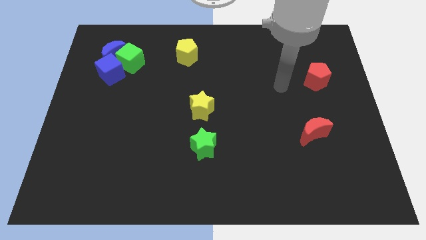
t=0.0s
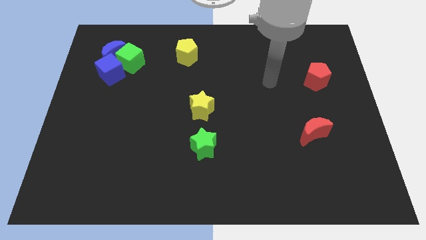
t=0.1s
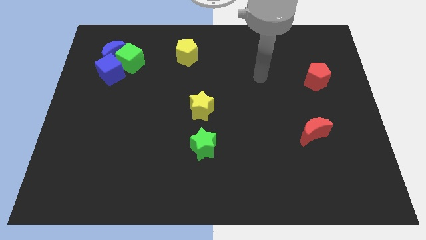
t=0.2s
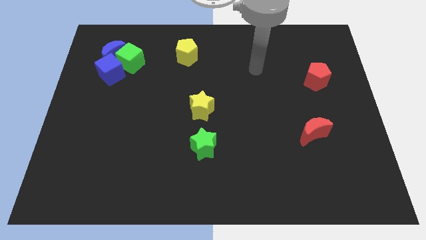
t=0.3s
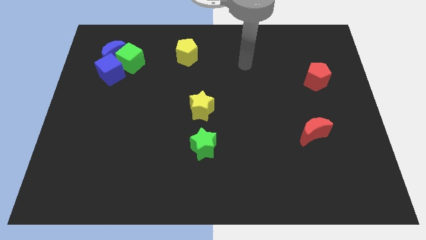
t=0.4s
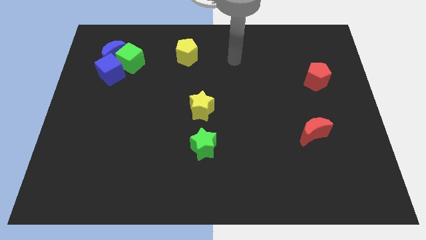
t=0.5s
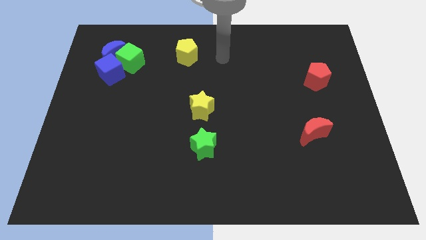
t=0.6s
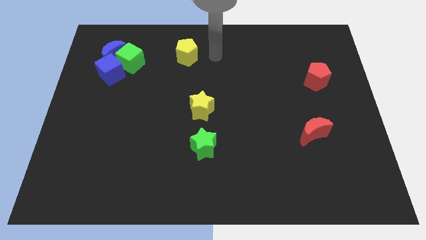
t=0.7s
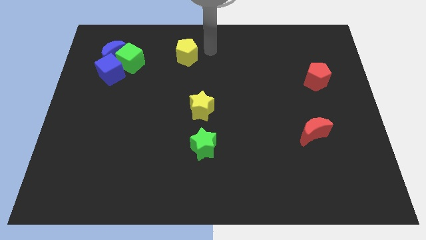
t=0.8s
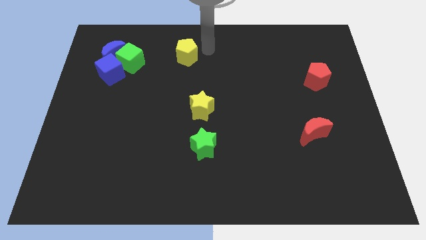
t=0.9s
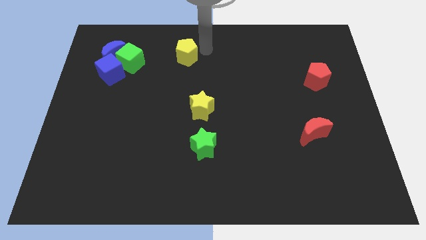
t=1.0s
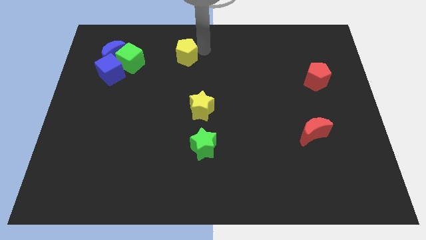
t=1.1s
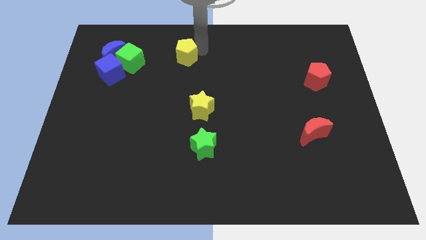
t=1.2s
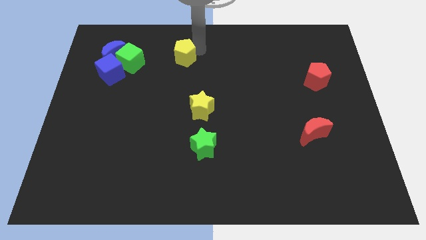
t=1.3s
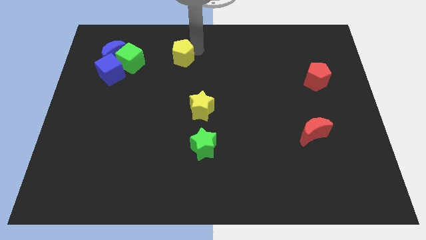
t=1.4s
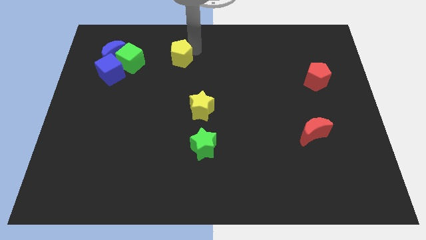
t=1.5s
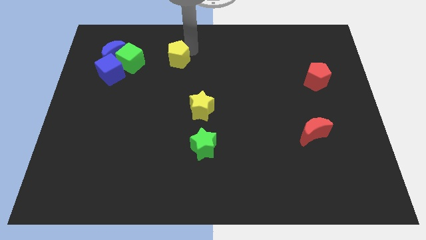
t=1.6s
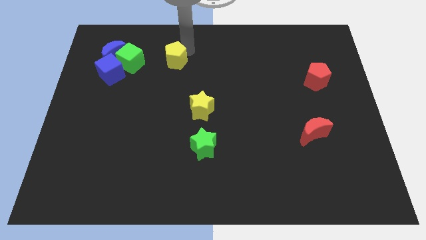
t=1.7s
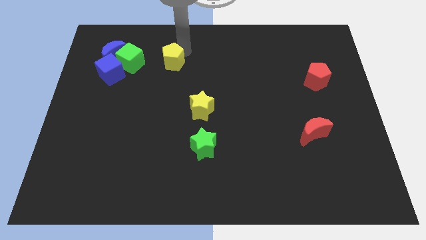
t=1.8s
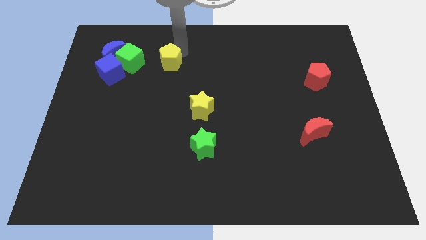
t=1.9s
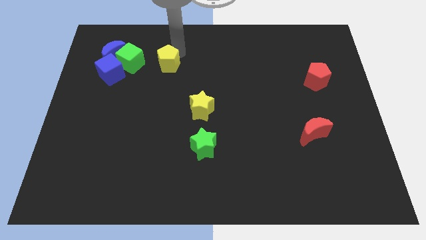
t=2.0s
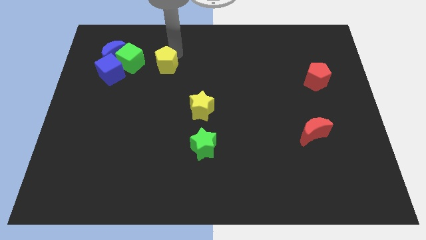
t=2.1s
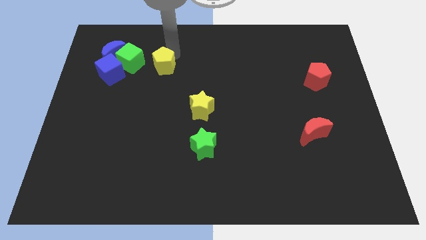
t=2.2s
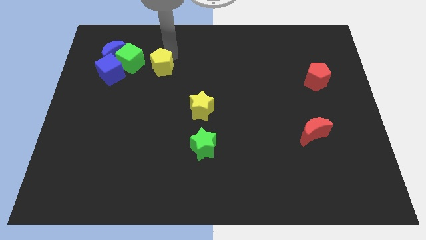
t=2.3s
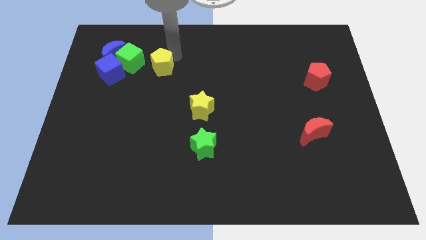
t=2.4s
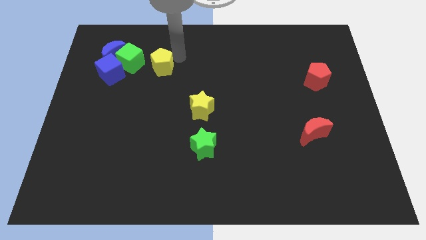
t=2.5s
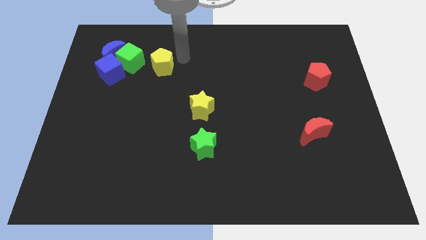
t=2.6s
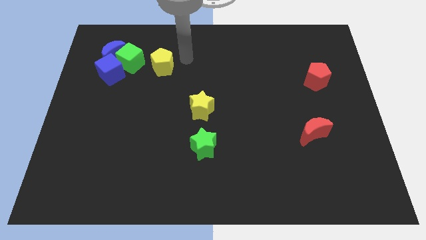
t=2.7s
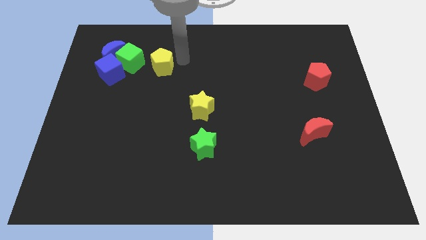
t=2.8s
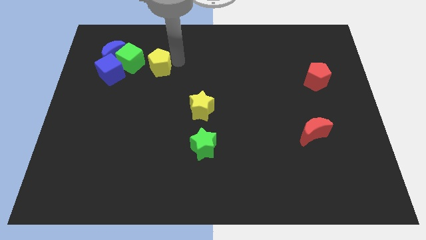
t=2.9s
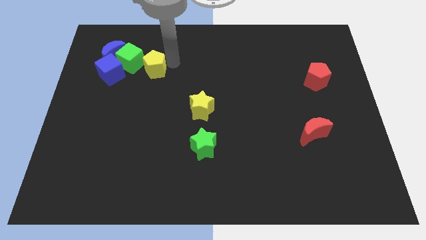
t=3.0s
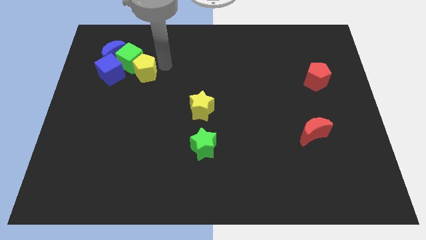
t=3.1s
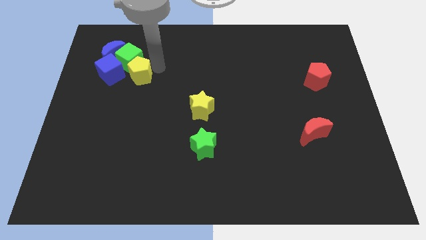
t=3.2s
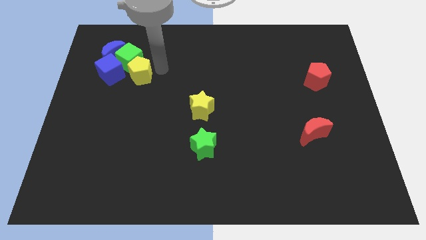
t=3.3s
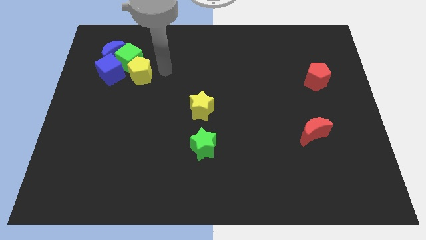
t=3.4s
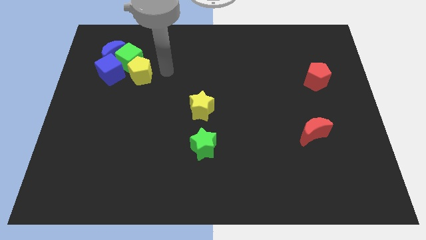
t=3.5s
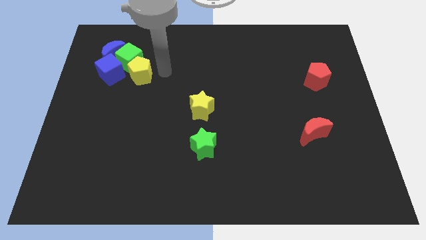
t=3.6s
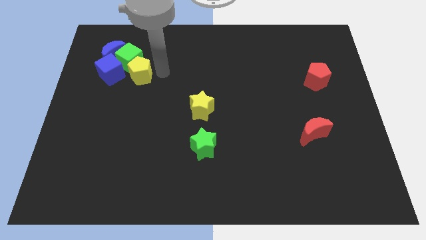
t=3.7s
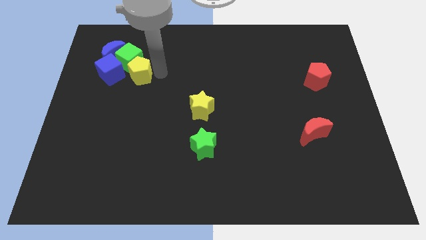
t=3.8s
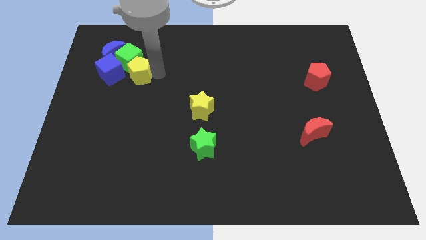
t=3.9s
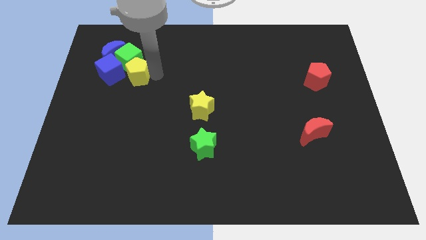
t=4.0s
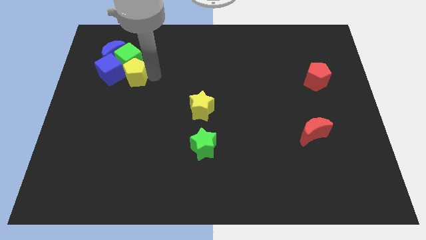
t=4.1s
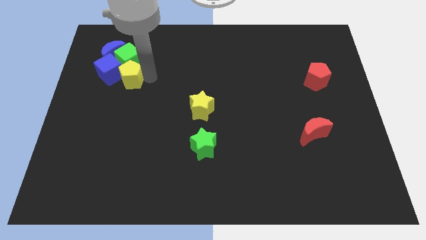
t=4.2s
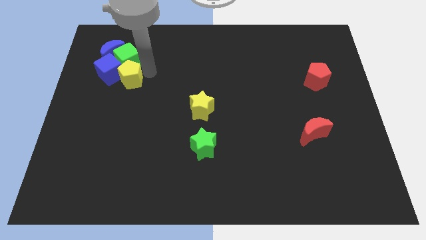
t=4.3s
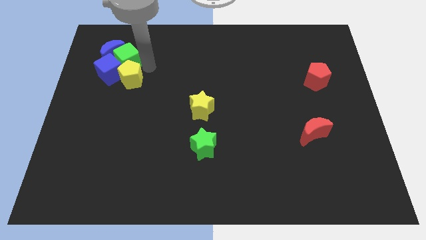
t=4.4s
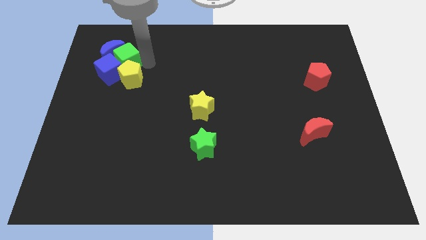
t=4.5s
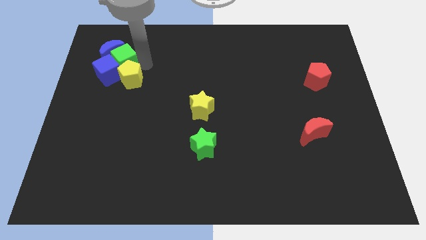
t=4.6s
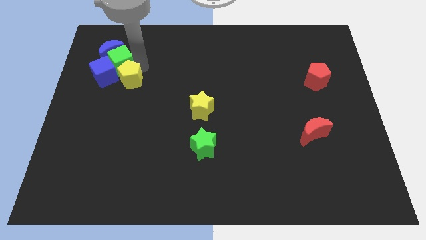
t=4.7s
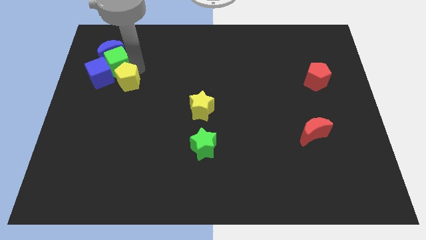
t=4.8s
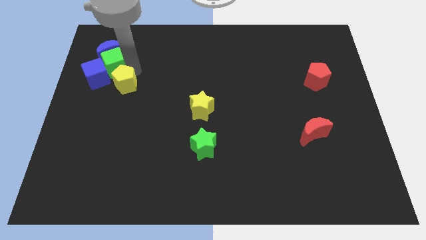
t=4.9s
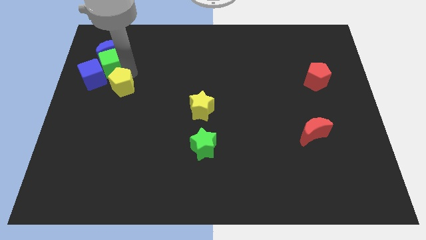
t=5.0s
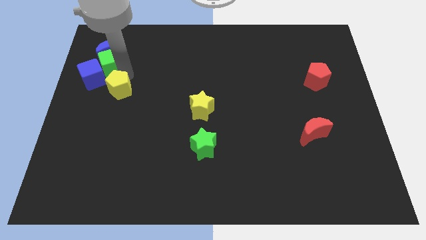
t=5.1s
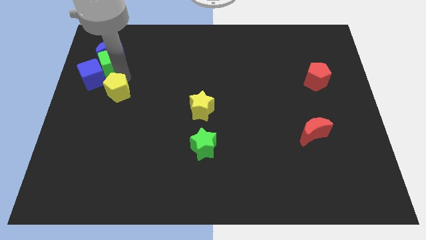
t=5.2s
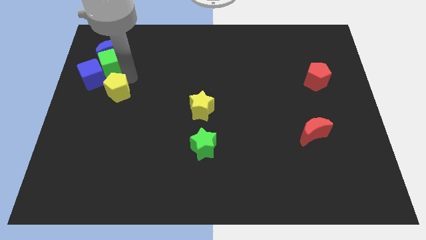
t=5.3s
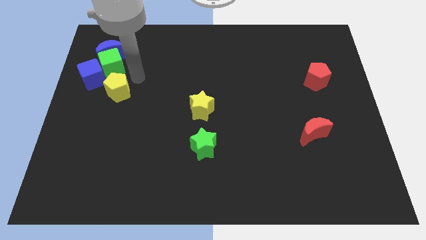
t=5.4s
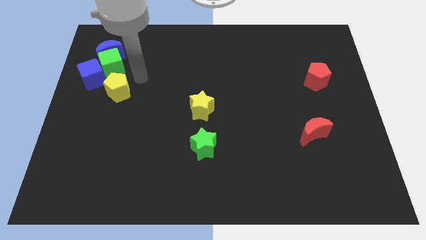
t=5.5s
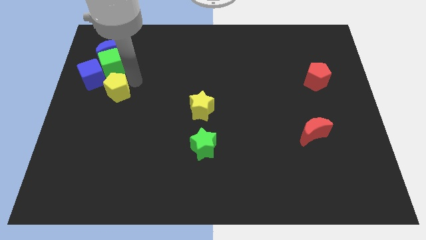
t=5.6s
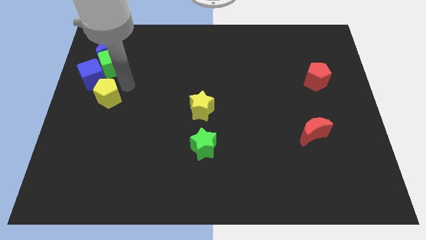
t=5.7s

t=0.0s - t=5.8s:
push the yellow pentagon to the bottom of the blue cube

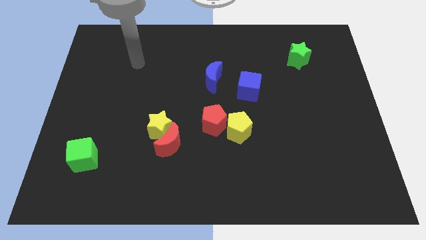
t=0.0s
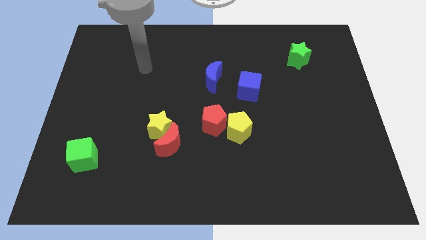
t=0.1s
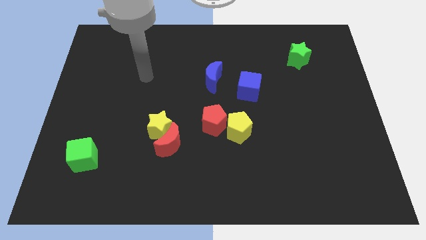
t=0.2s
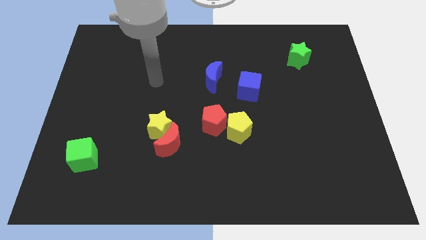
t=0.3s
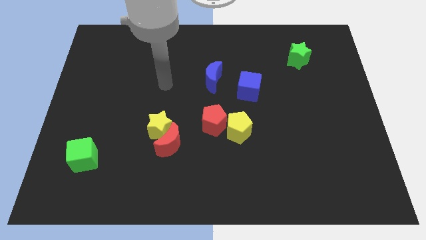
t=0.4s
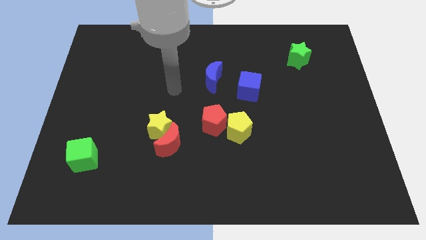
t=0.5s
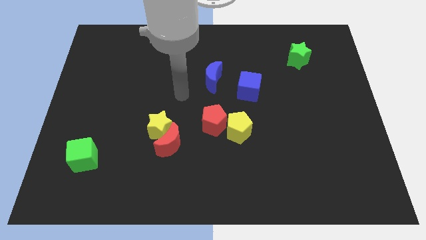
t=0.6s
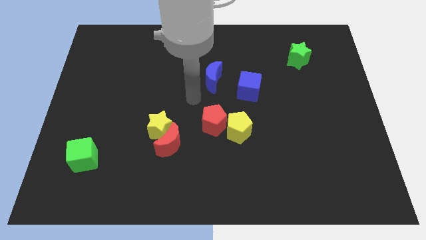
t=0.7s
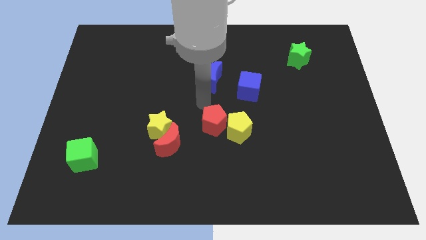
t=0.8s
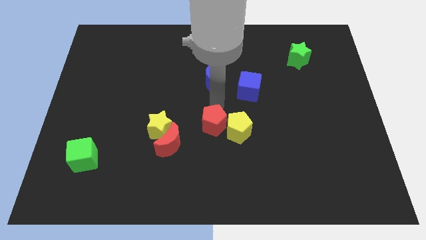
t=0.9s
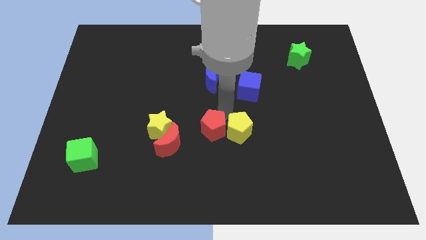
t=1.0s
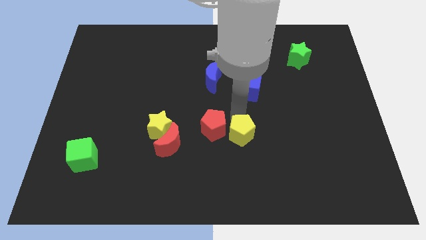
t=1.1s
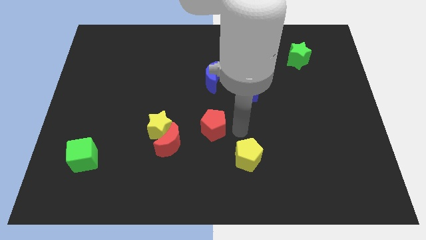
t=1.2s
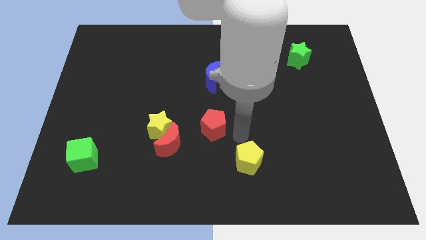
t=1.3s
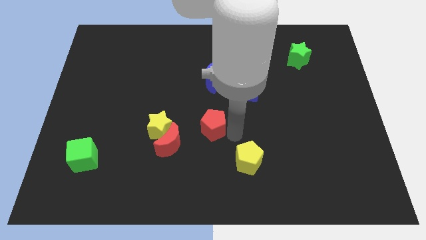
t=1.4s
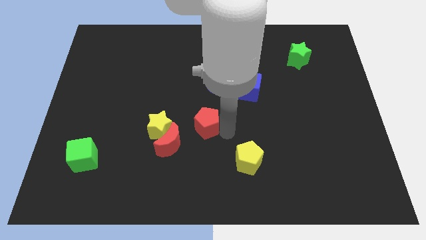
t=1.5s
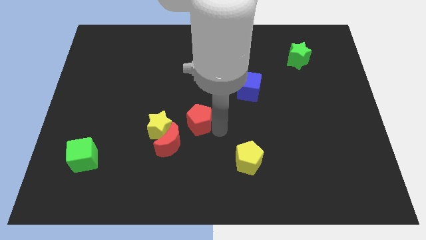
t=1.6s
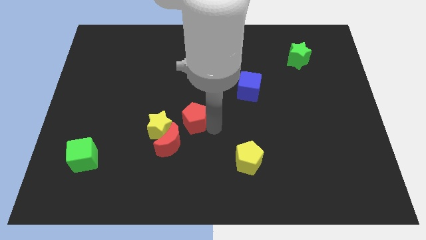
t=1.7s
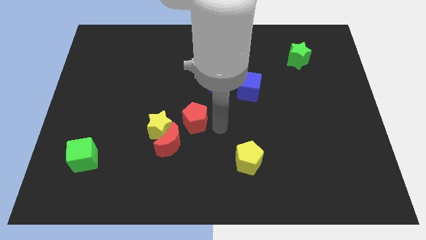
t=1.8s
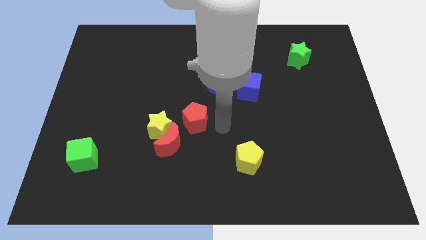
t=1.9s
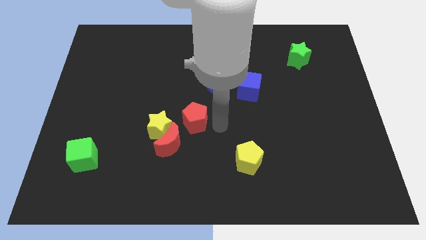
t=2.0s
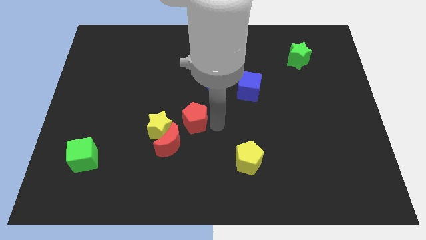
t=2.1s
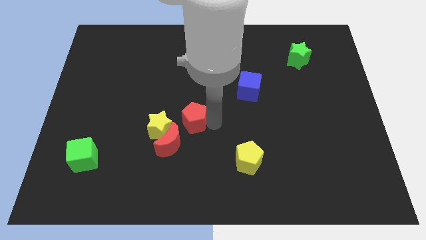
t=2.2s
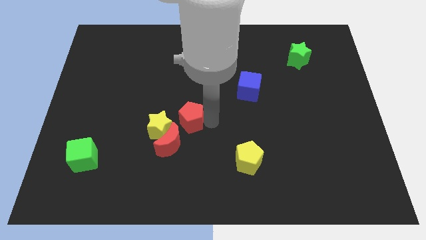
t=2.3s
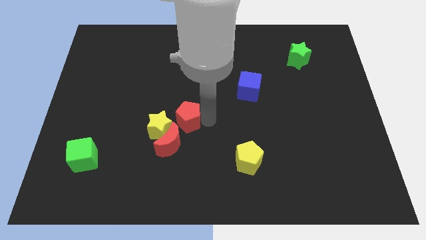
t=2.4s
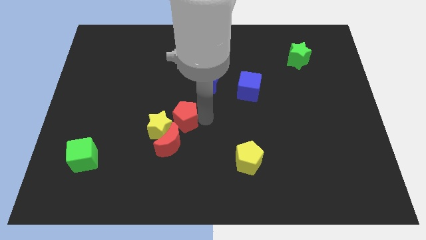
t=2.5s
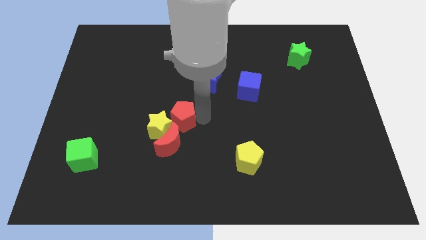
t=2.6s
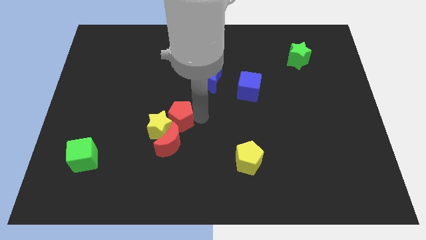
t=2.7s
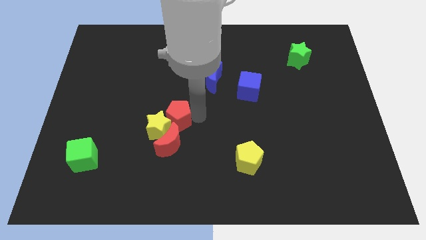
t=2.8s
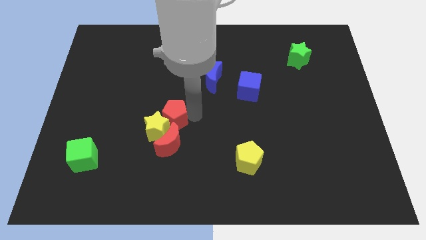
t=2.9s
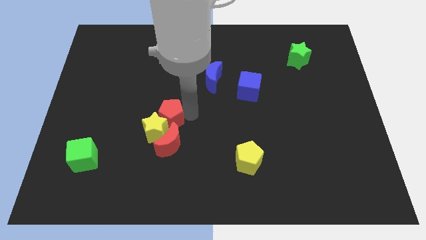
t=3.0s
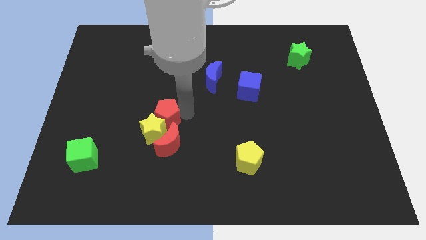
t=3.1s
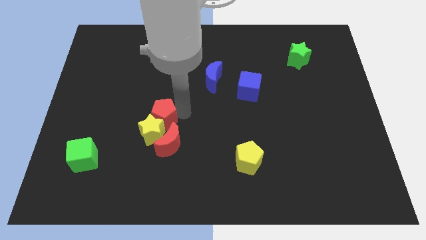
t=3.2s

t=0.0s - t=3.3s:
put the red pentagon to the top left of the yellow star
